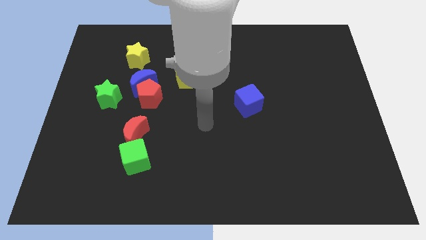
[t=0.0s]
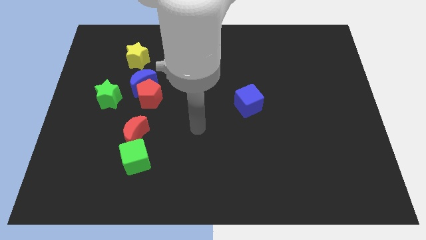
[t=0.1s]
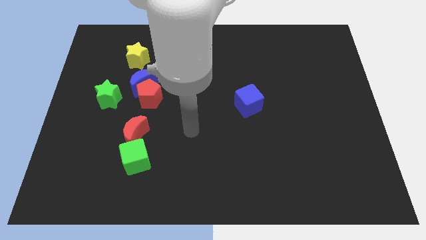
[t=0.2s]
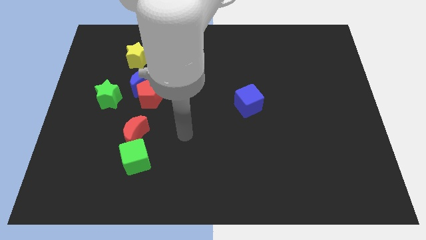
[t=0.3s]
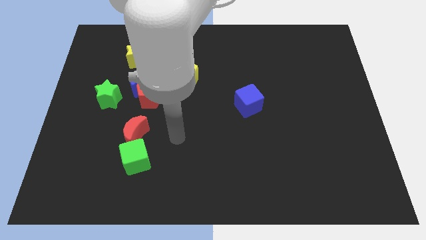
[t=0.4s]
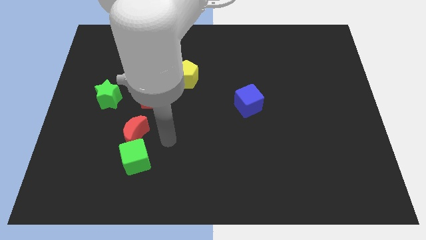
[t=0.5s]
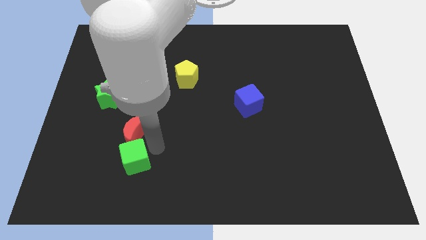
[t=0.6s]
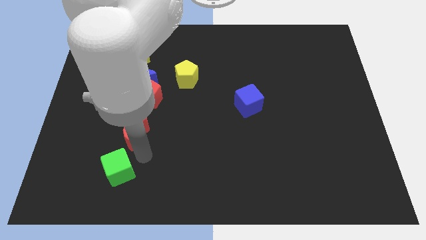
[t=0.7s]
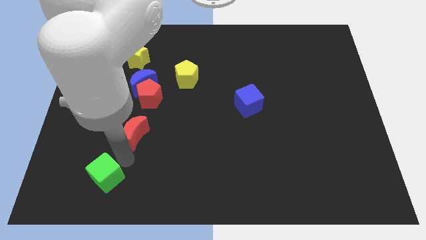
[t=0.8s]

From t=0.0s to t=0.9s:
separate the red moon from the green cube

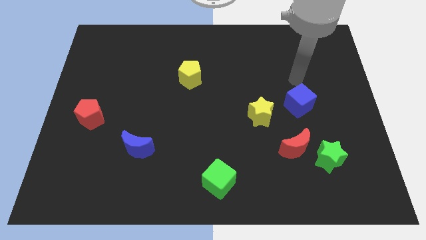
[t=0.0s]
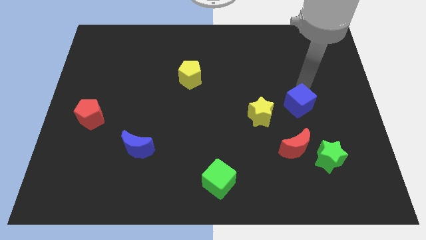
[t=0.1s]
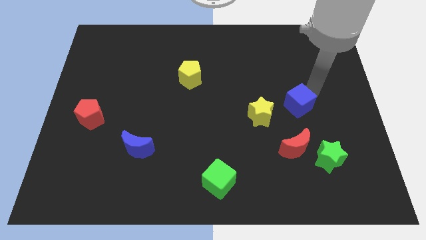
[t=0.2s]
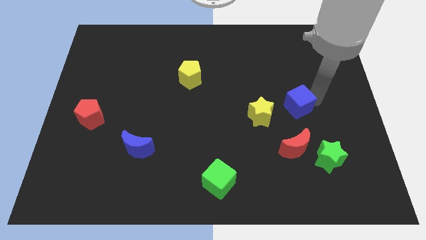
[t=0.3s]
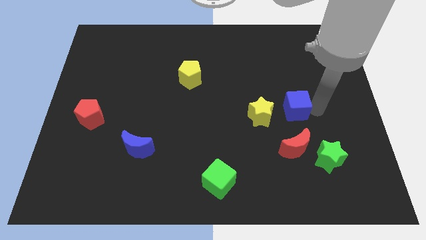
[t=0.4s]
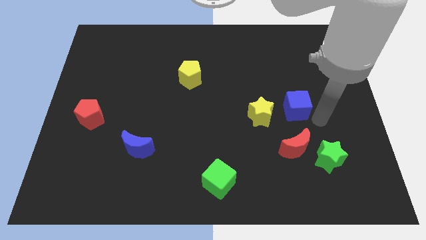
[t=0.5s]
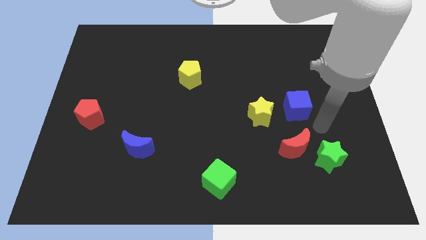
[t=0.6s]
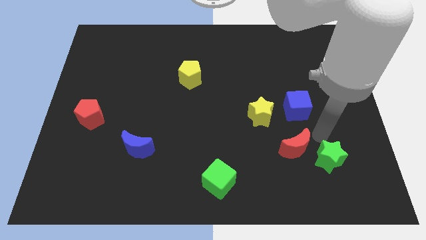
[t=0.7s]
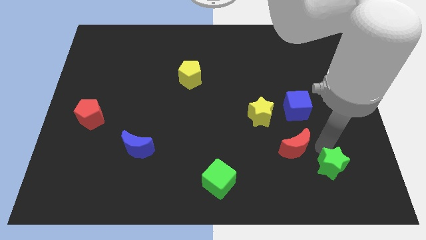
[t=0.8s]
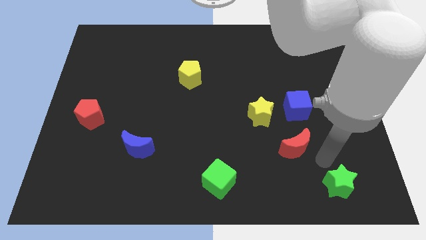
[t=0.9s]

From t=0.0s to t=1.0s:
move the red moon away from the green star

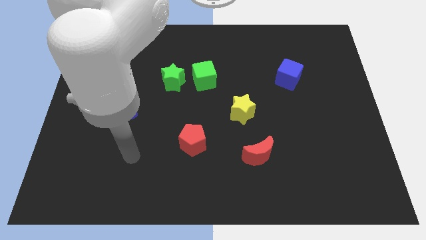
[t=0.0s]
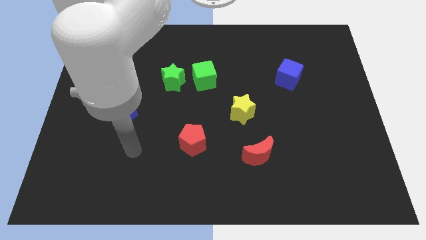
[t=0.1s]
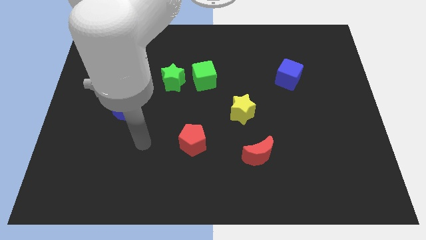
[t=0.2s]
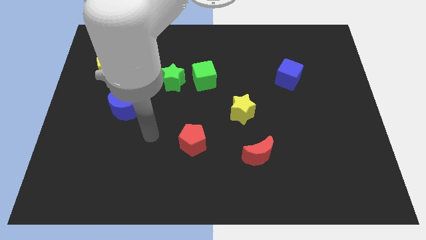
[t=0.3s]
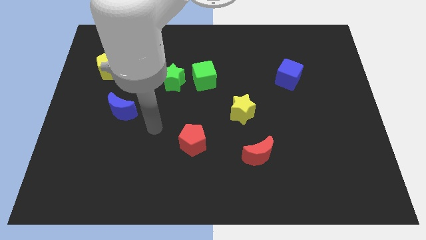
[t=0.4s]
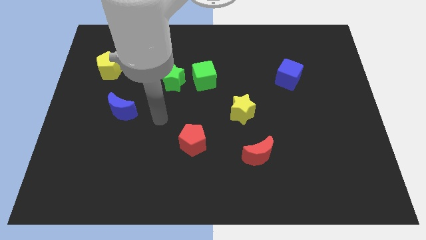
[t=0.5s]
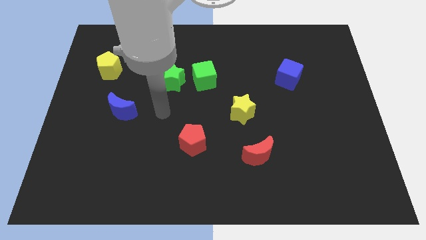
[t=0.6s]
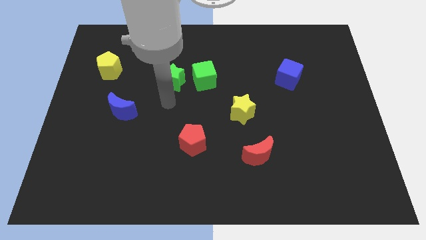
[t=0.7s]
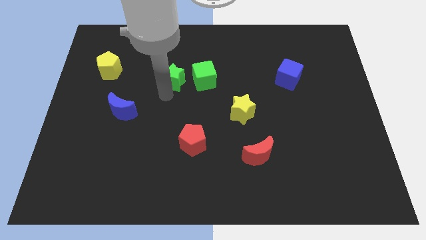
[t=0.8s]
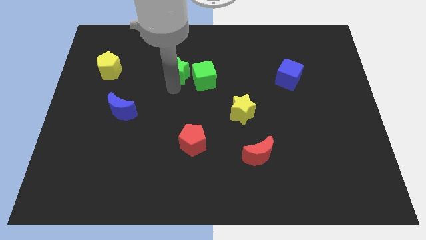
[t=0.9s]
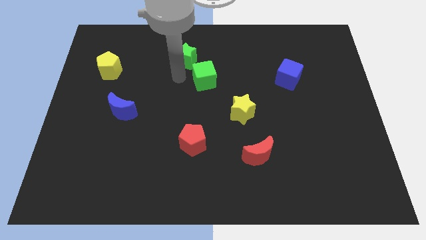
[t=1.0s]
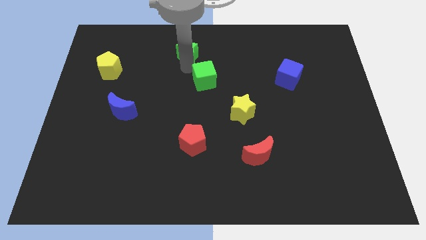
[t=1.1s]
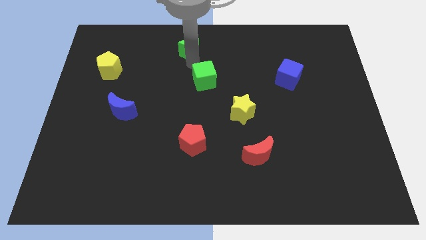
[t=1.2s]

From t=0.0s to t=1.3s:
separate the green cube from the green star

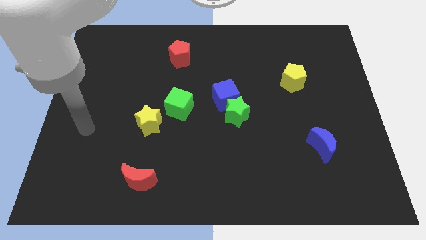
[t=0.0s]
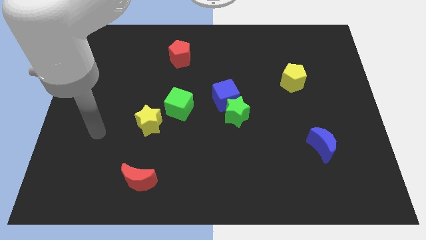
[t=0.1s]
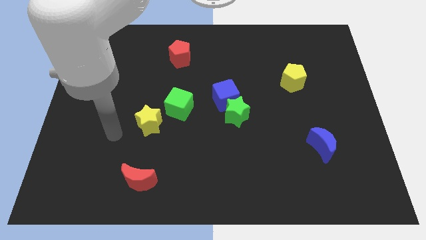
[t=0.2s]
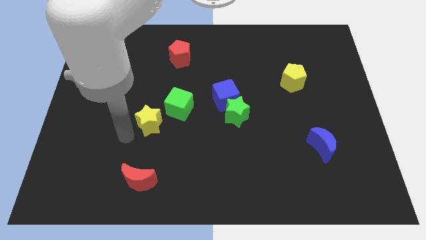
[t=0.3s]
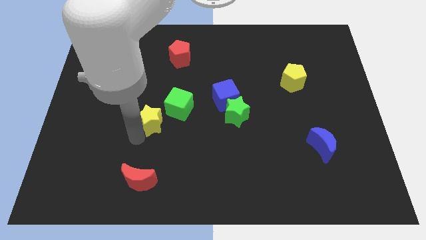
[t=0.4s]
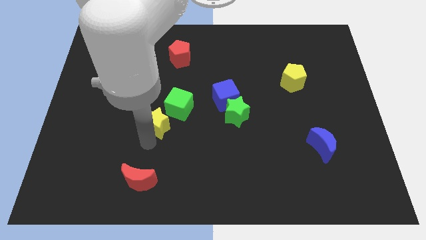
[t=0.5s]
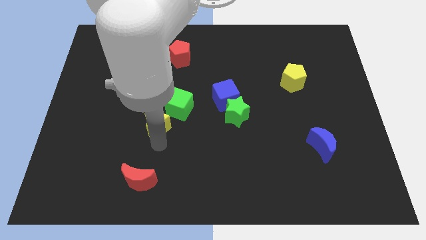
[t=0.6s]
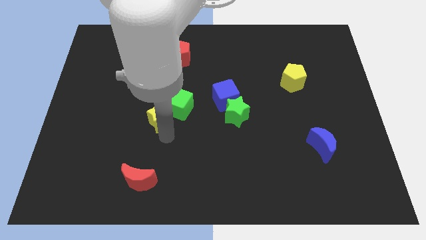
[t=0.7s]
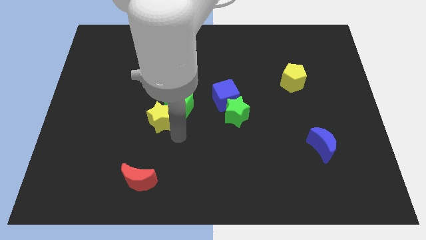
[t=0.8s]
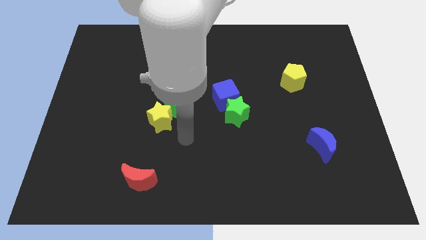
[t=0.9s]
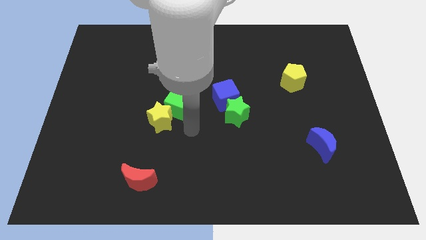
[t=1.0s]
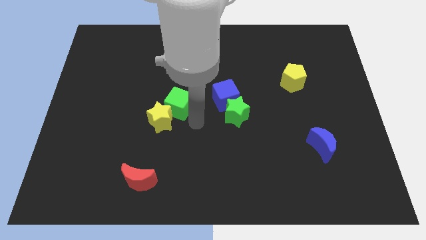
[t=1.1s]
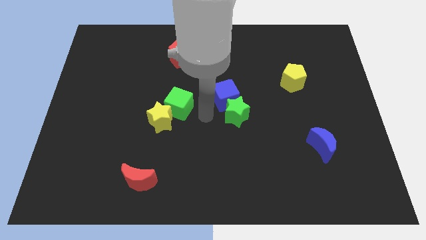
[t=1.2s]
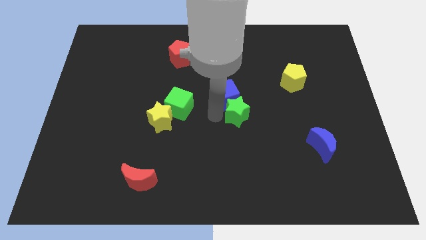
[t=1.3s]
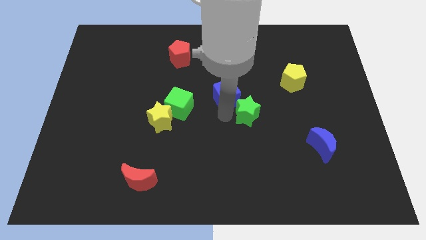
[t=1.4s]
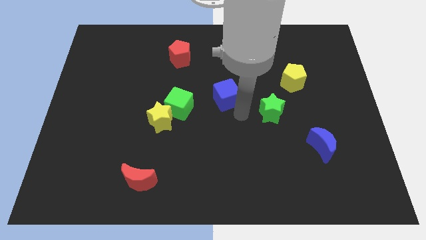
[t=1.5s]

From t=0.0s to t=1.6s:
move the blue cube away from the green star

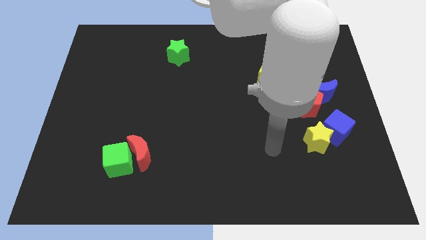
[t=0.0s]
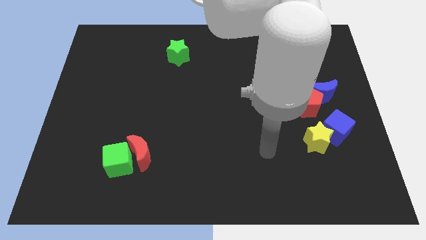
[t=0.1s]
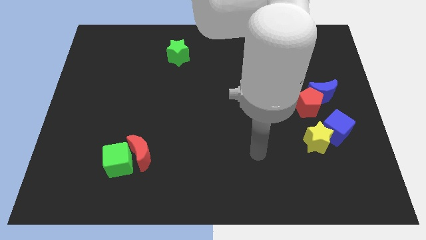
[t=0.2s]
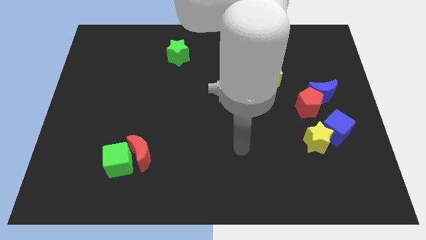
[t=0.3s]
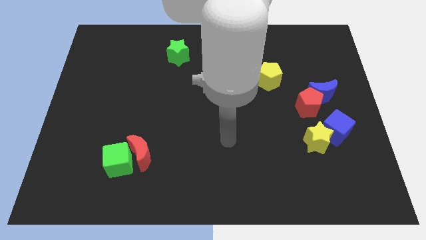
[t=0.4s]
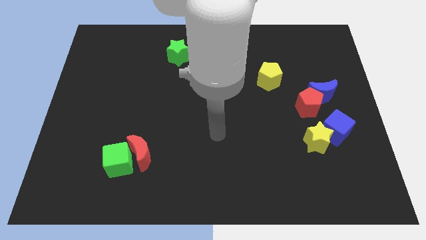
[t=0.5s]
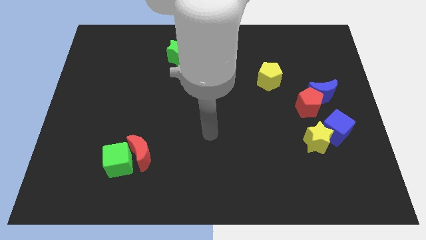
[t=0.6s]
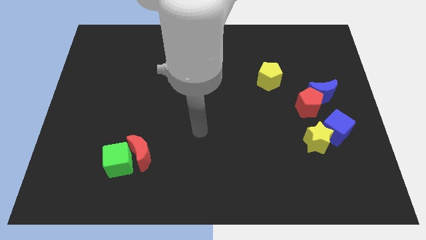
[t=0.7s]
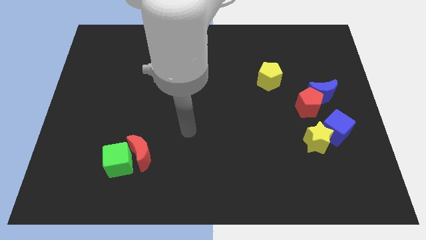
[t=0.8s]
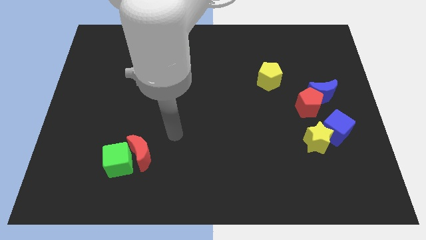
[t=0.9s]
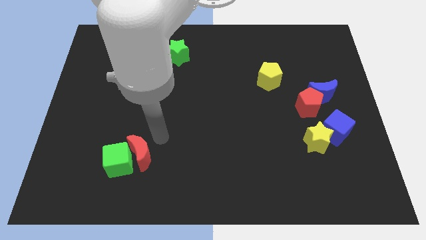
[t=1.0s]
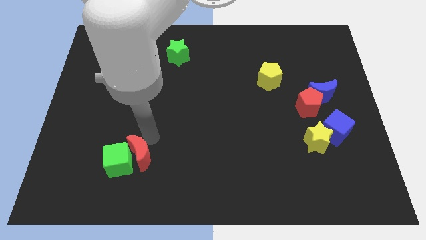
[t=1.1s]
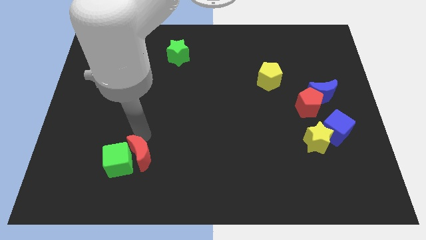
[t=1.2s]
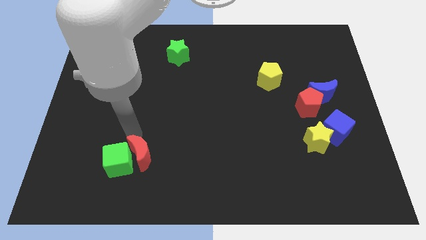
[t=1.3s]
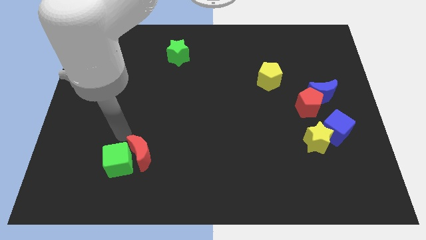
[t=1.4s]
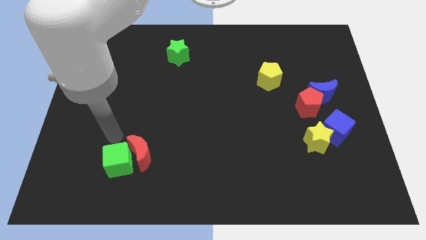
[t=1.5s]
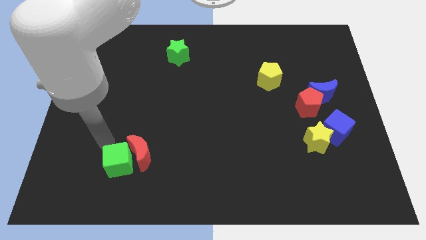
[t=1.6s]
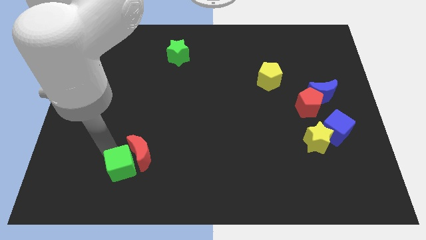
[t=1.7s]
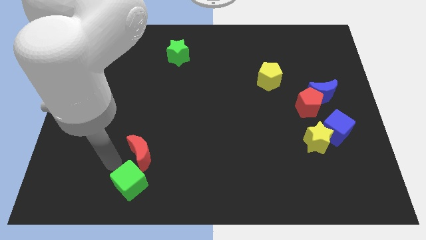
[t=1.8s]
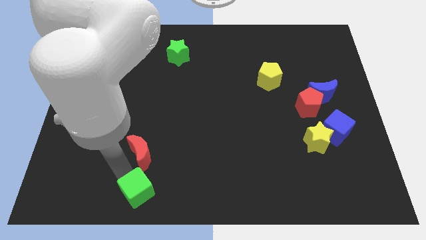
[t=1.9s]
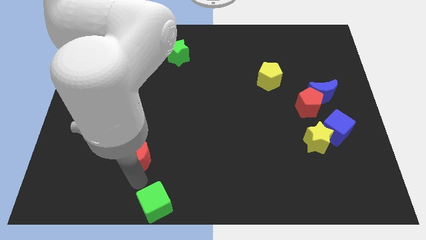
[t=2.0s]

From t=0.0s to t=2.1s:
pull the red moon apart from the green cube

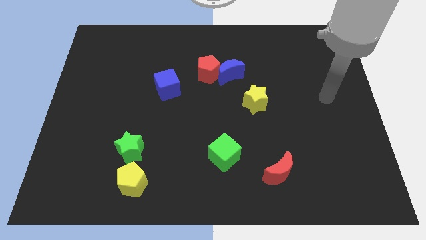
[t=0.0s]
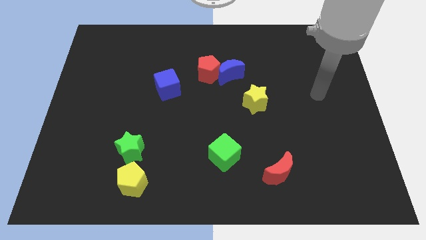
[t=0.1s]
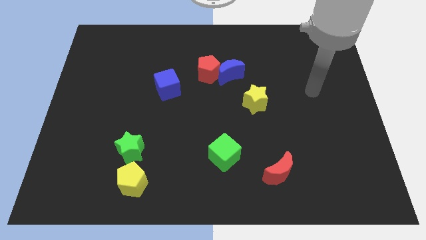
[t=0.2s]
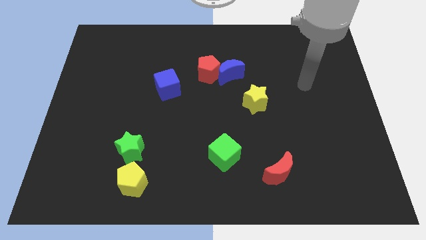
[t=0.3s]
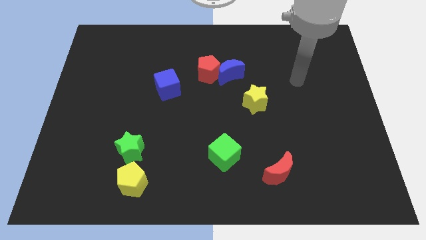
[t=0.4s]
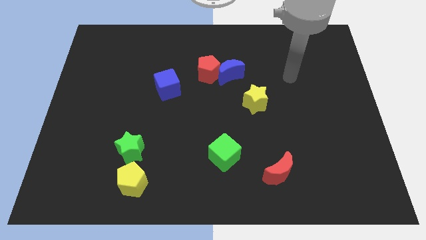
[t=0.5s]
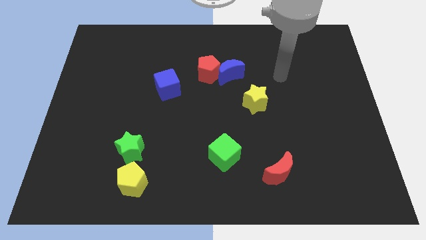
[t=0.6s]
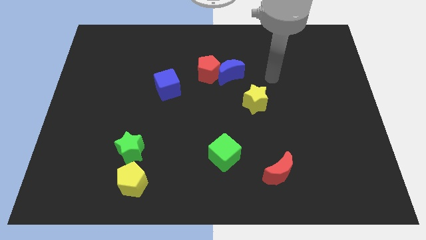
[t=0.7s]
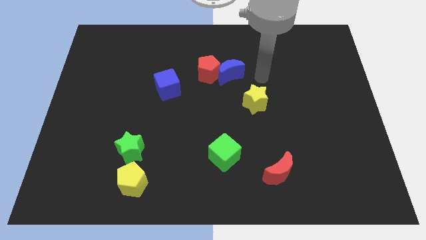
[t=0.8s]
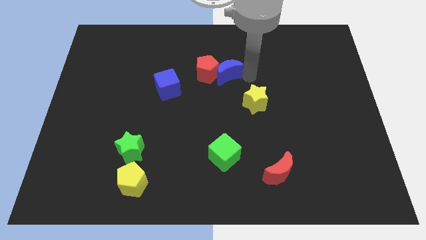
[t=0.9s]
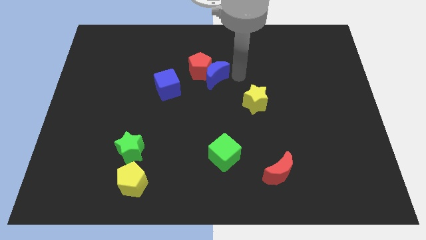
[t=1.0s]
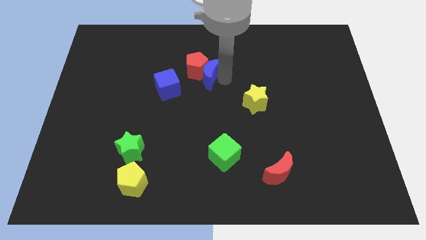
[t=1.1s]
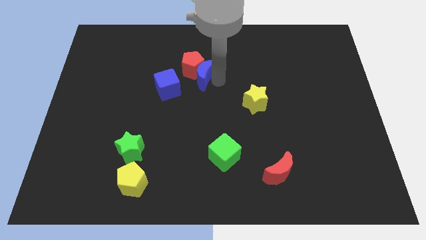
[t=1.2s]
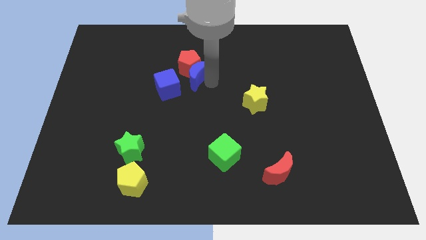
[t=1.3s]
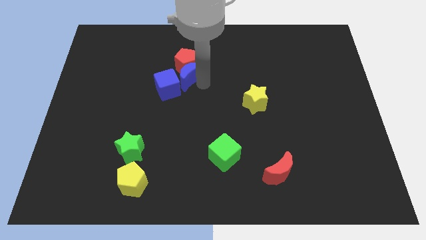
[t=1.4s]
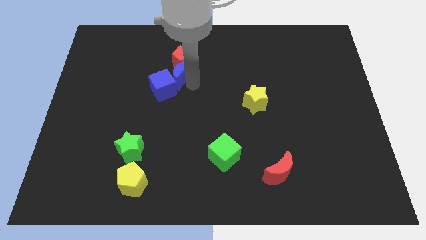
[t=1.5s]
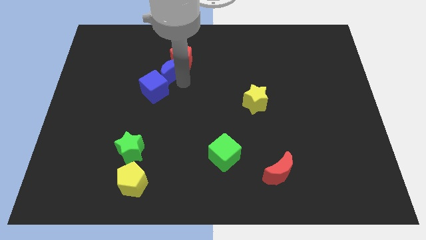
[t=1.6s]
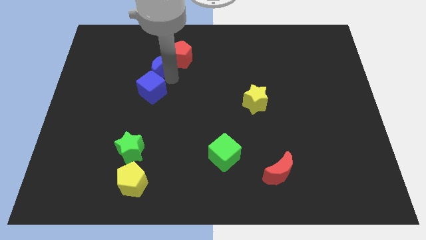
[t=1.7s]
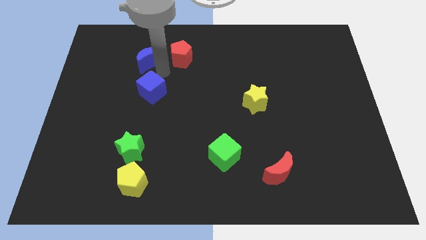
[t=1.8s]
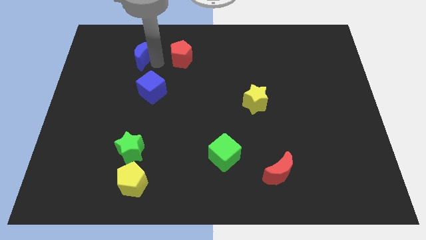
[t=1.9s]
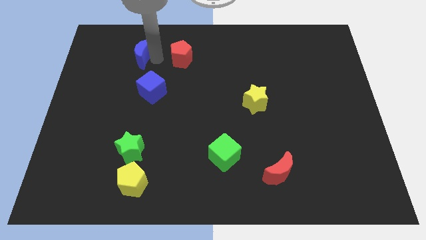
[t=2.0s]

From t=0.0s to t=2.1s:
pull the red pentagon apart from the blue moon

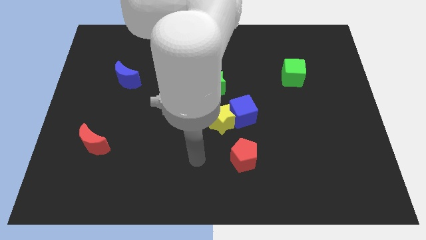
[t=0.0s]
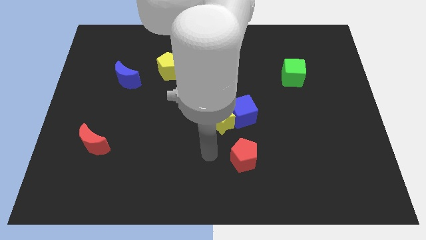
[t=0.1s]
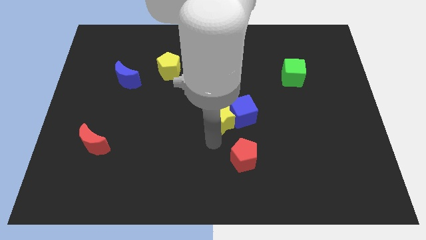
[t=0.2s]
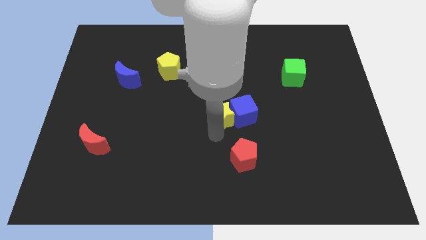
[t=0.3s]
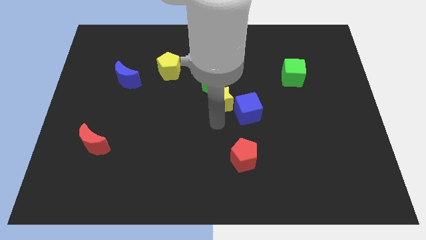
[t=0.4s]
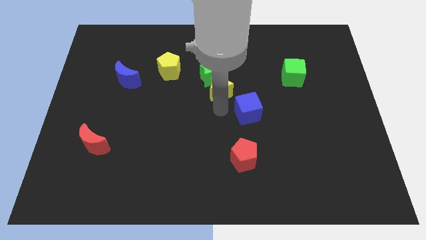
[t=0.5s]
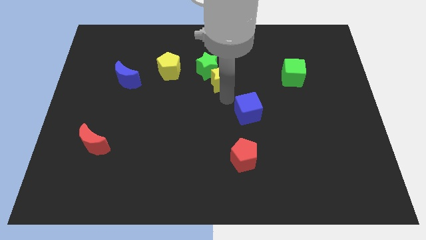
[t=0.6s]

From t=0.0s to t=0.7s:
separate the blue cube from the yellow star
